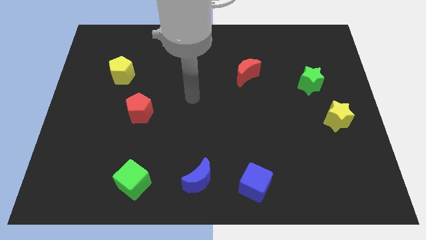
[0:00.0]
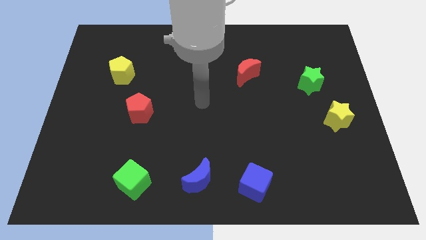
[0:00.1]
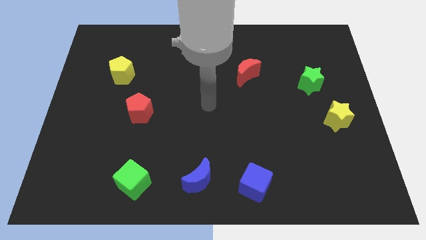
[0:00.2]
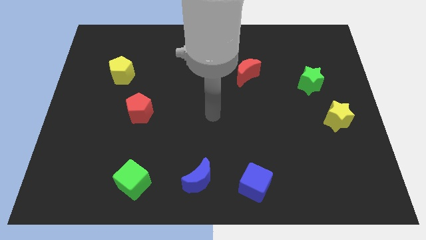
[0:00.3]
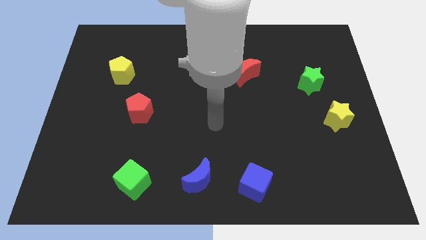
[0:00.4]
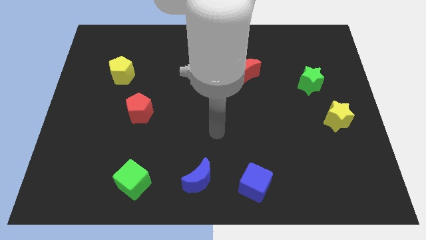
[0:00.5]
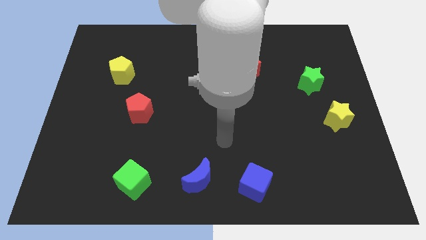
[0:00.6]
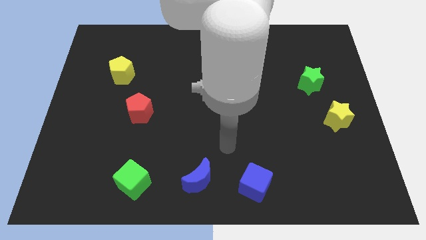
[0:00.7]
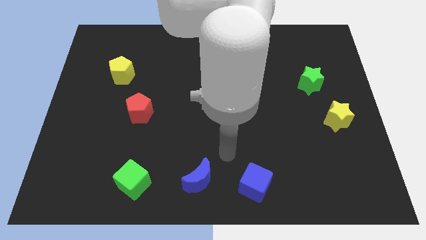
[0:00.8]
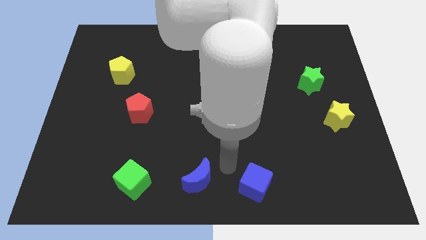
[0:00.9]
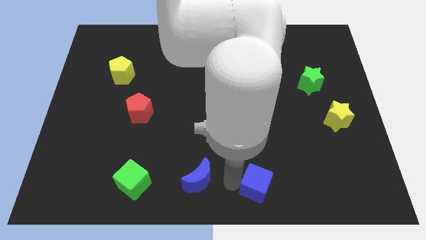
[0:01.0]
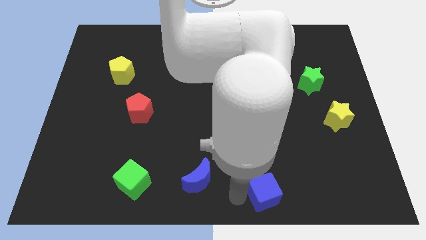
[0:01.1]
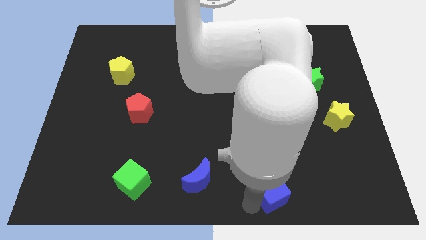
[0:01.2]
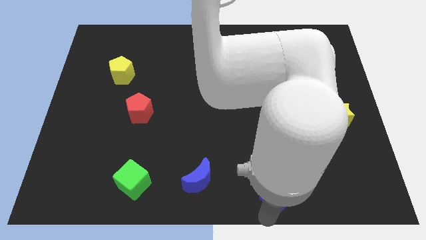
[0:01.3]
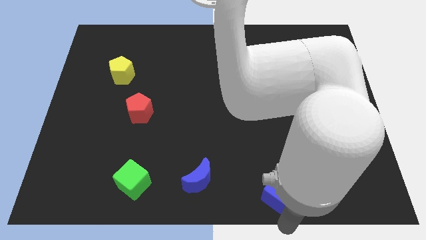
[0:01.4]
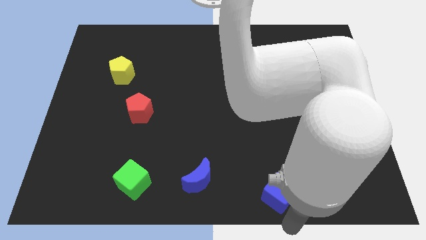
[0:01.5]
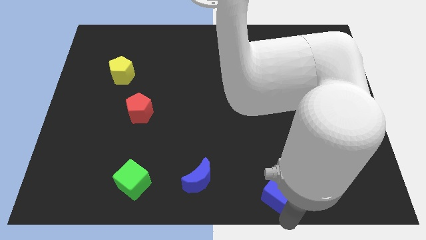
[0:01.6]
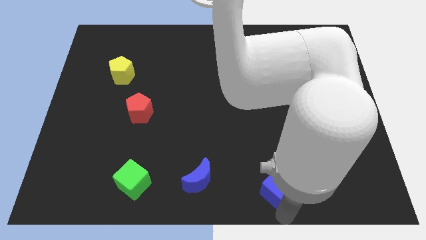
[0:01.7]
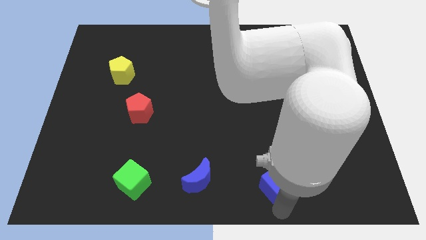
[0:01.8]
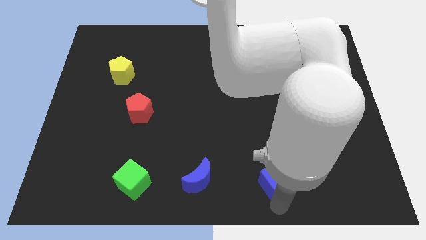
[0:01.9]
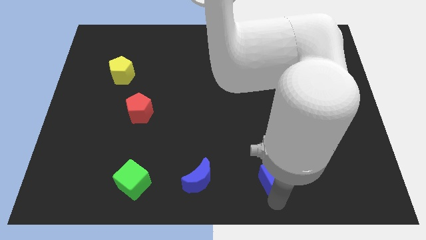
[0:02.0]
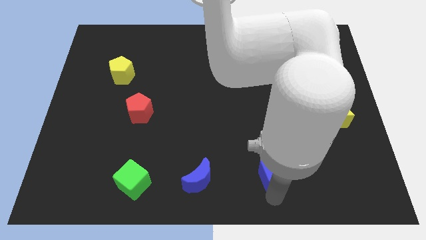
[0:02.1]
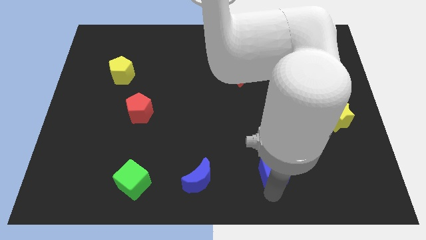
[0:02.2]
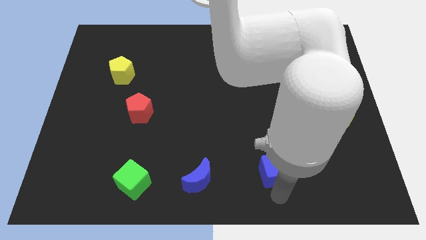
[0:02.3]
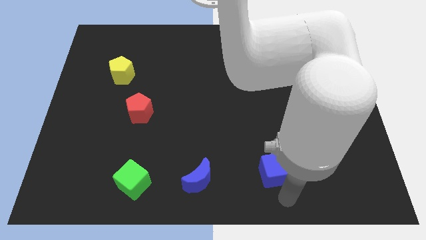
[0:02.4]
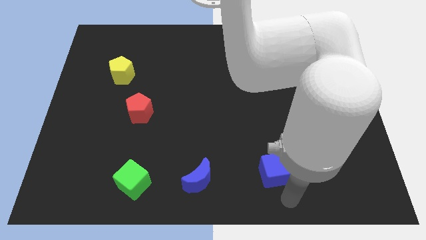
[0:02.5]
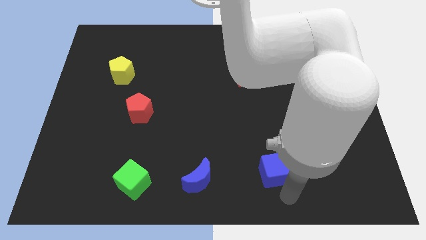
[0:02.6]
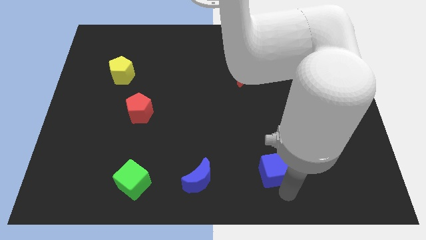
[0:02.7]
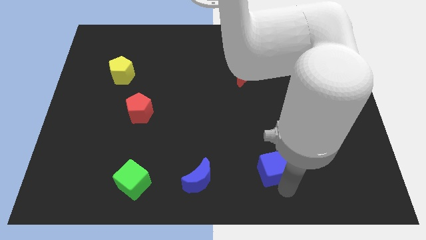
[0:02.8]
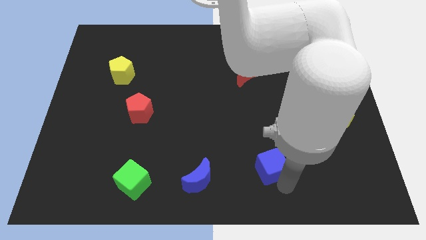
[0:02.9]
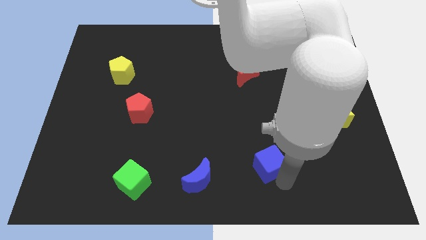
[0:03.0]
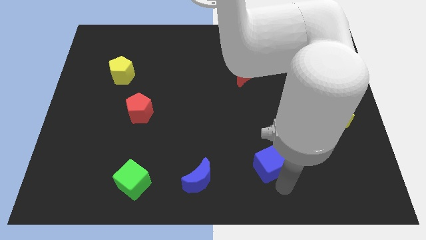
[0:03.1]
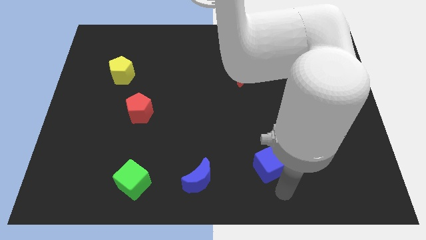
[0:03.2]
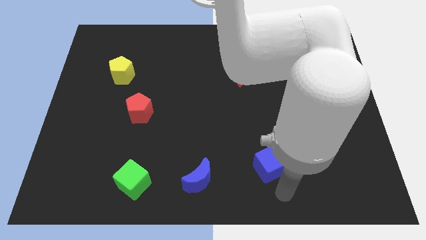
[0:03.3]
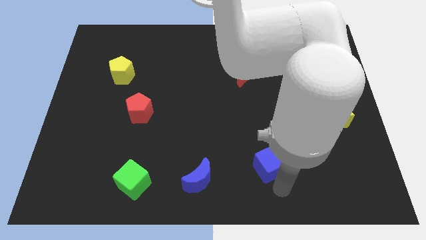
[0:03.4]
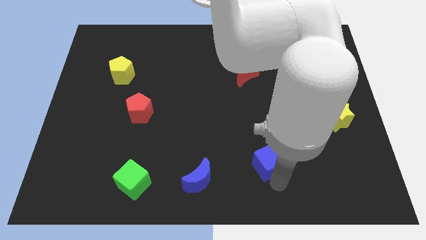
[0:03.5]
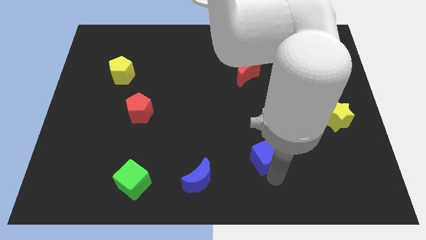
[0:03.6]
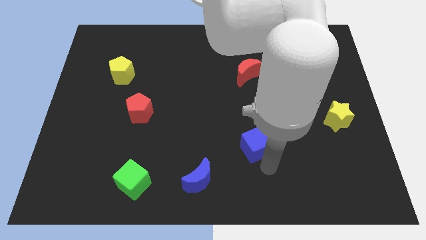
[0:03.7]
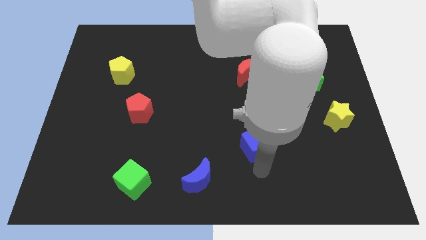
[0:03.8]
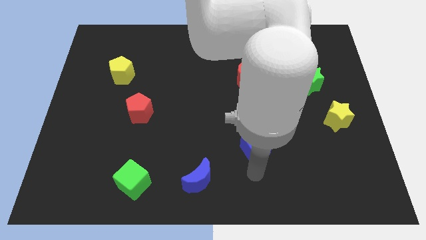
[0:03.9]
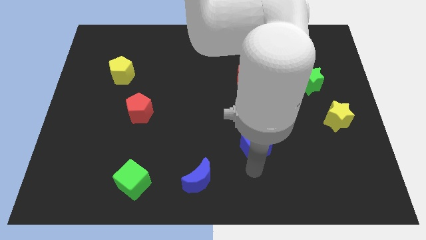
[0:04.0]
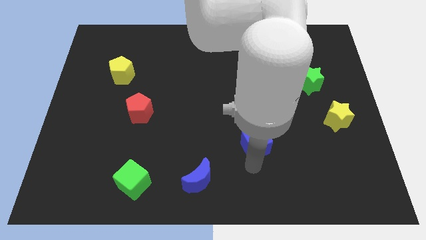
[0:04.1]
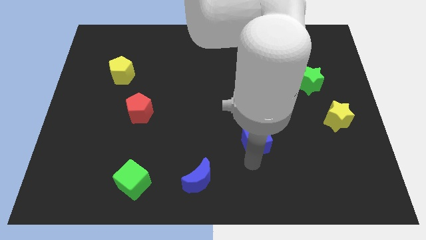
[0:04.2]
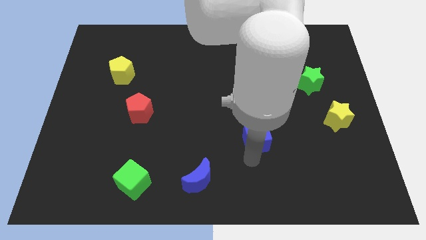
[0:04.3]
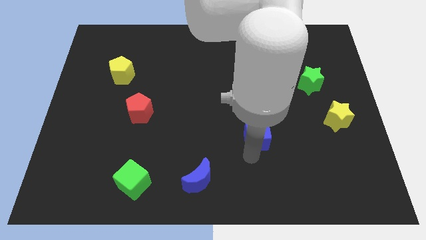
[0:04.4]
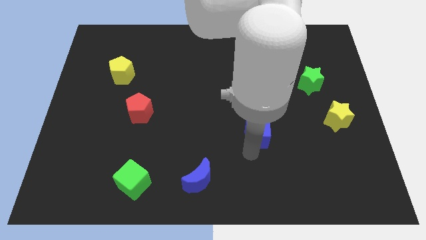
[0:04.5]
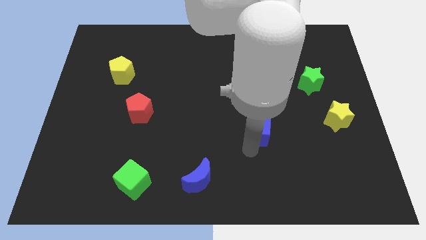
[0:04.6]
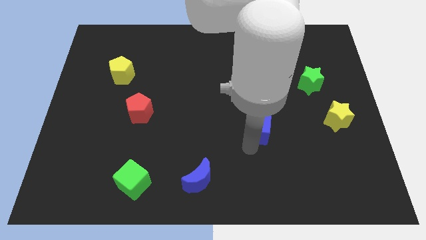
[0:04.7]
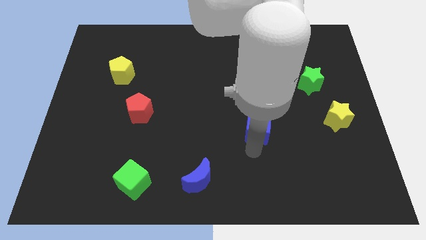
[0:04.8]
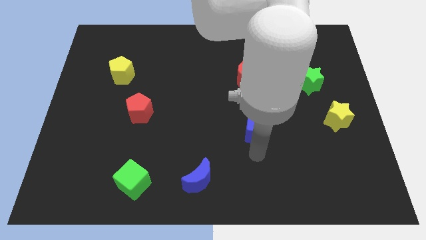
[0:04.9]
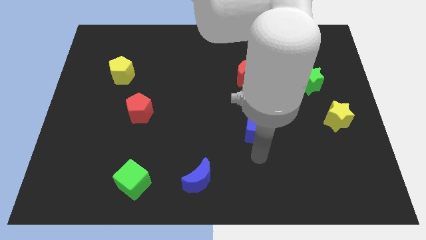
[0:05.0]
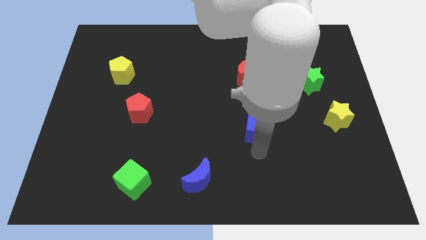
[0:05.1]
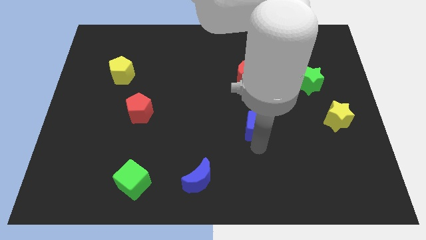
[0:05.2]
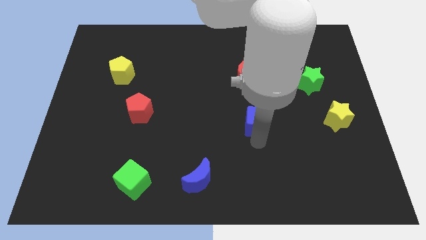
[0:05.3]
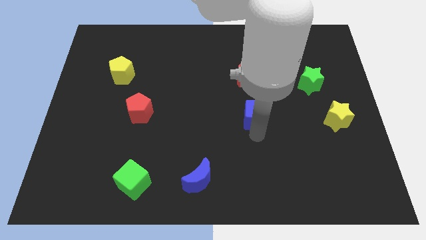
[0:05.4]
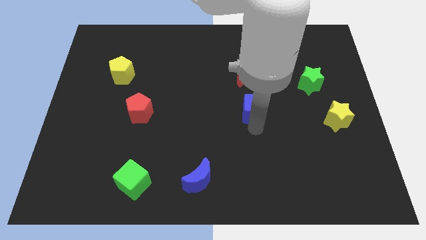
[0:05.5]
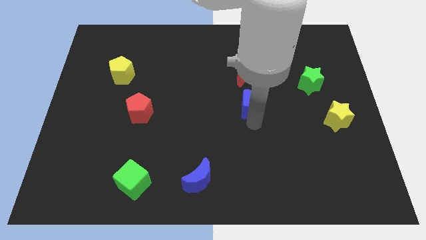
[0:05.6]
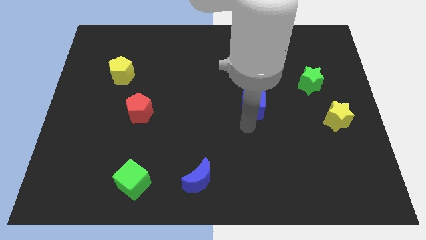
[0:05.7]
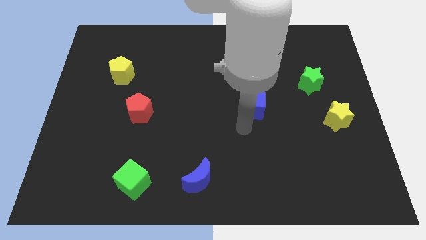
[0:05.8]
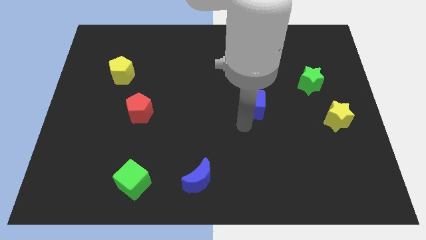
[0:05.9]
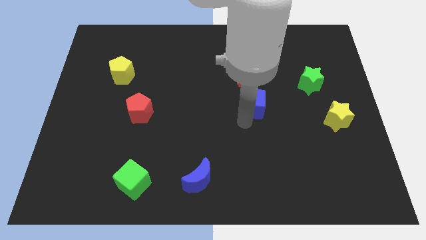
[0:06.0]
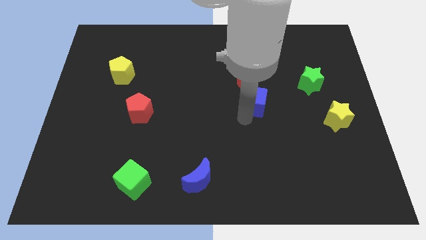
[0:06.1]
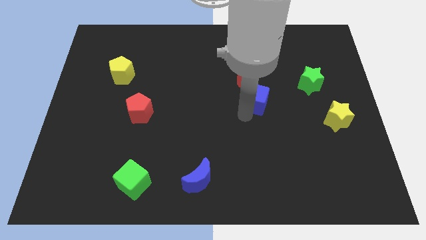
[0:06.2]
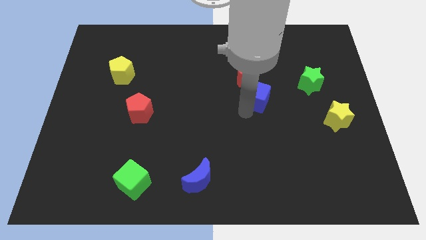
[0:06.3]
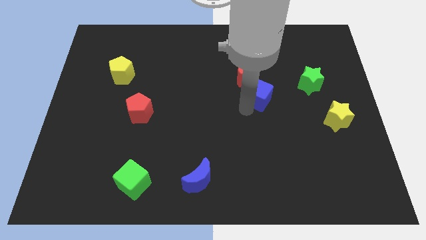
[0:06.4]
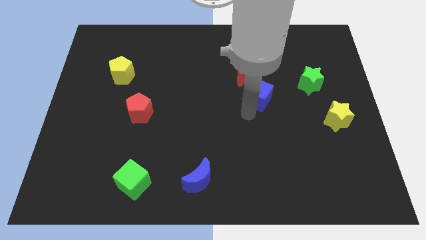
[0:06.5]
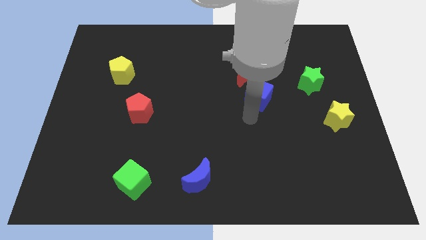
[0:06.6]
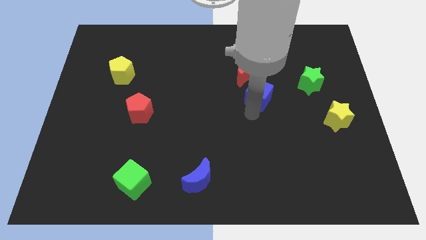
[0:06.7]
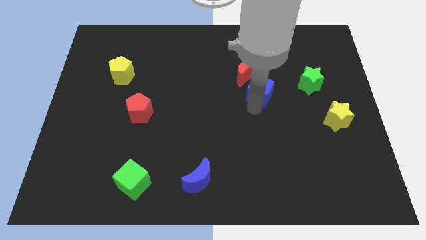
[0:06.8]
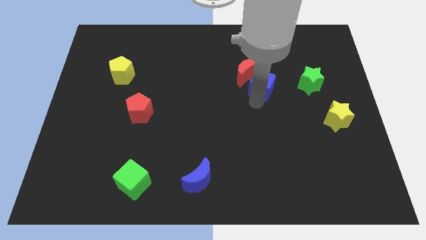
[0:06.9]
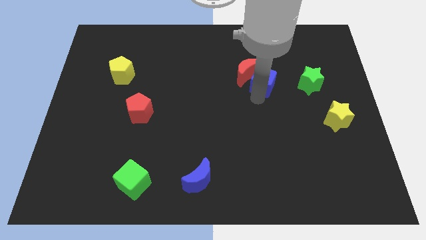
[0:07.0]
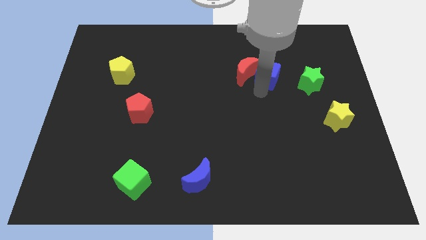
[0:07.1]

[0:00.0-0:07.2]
put the blue cube to the top right side of the red moon

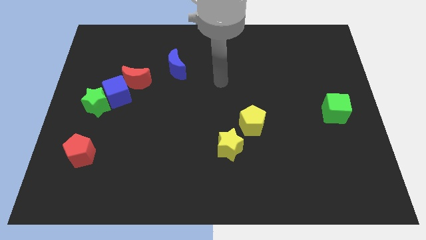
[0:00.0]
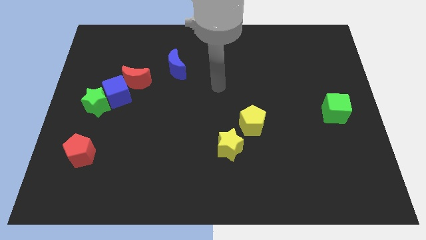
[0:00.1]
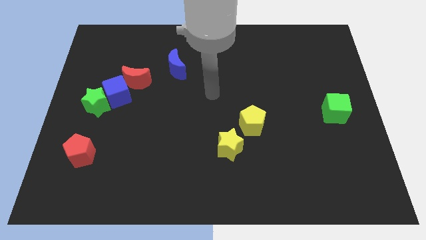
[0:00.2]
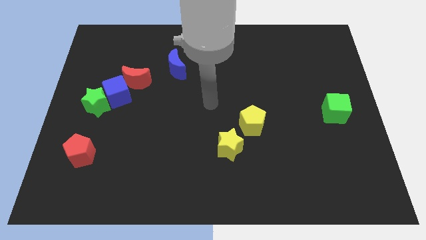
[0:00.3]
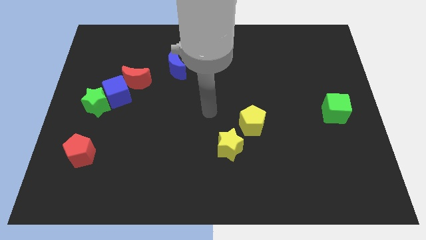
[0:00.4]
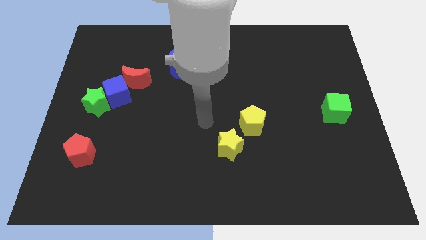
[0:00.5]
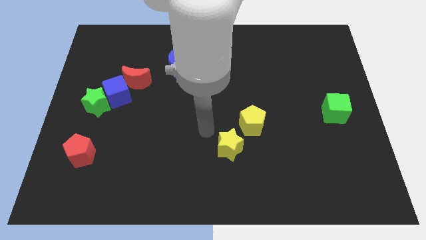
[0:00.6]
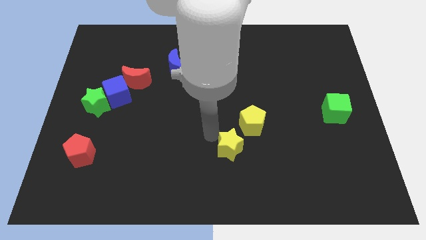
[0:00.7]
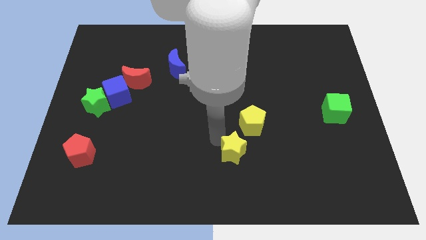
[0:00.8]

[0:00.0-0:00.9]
move the yellow star to the bottom side of the yellow pentagon
